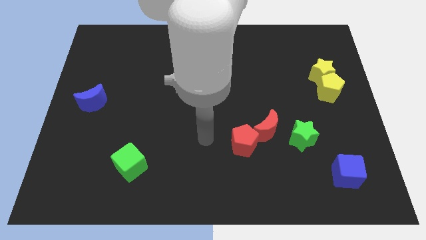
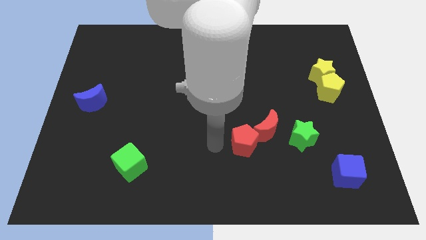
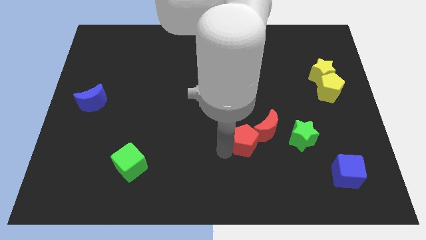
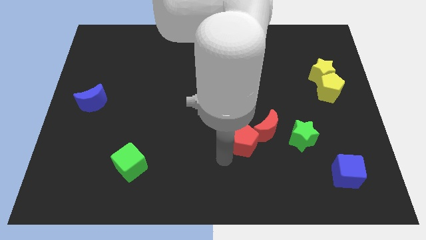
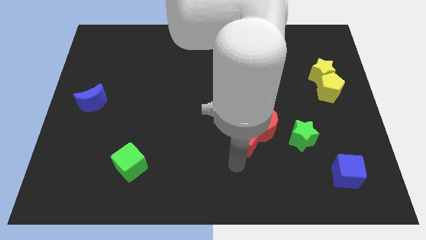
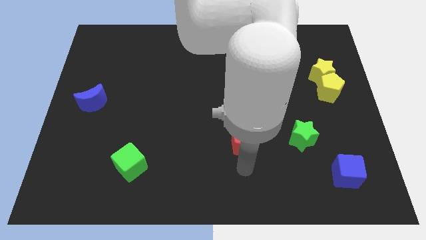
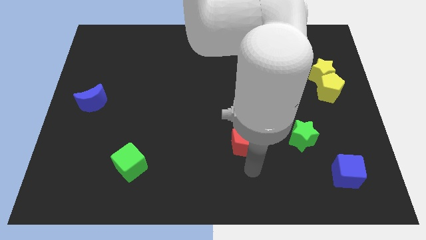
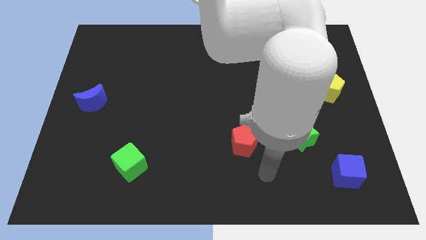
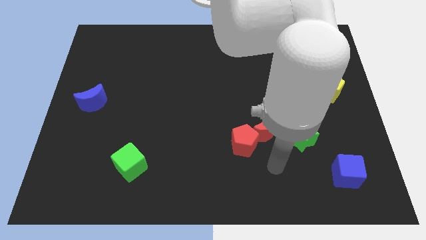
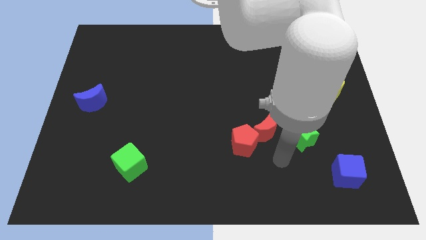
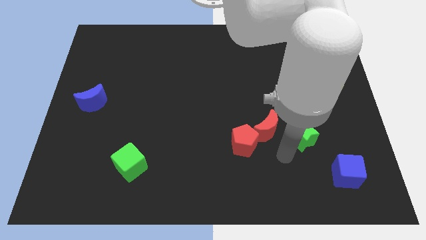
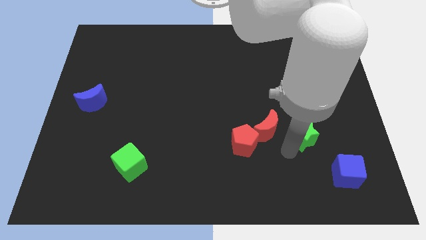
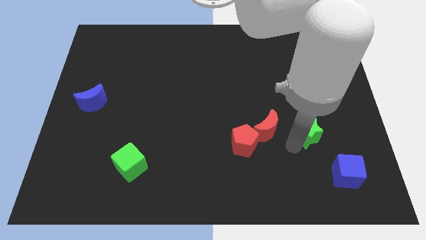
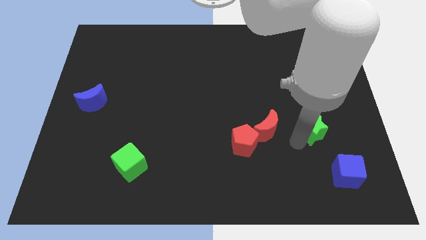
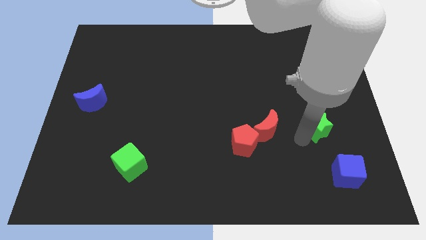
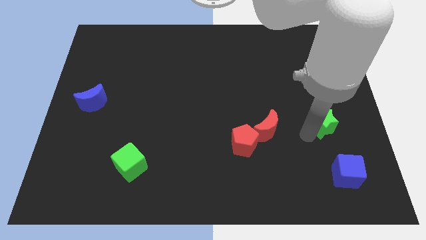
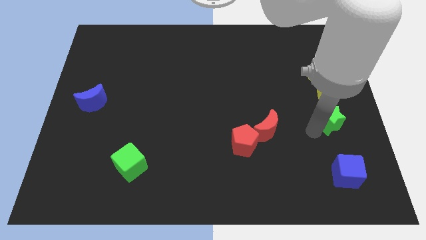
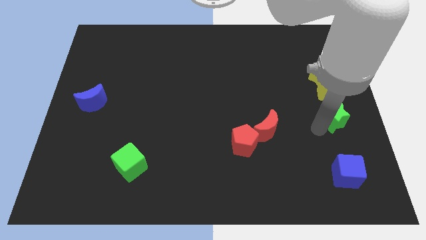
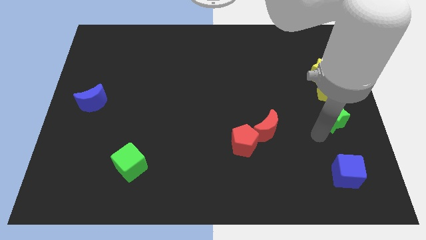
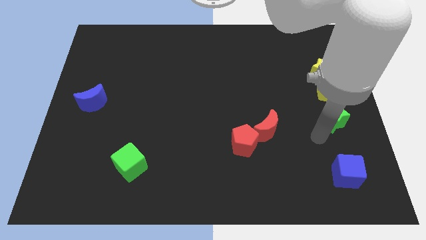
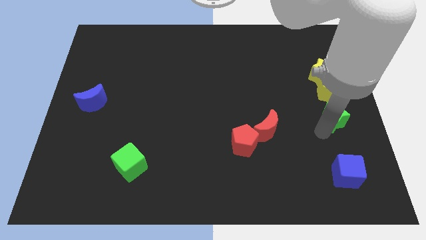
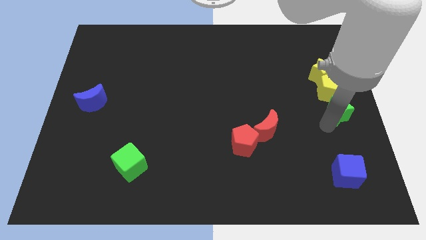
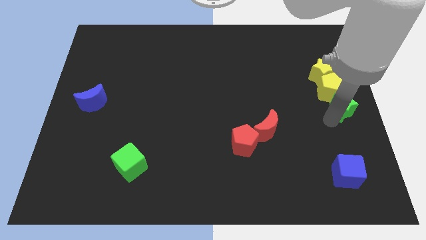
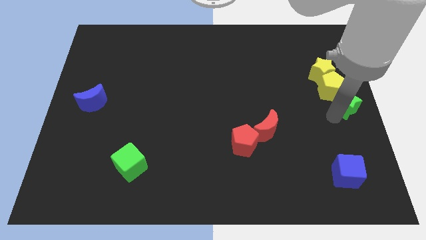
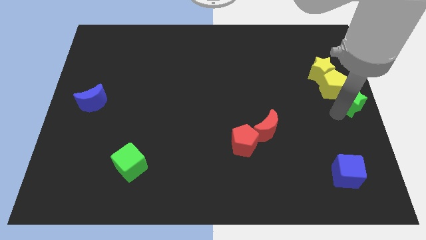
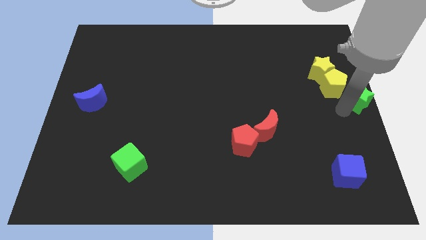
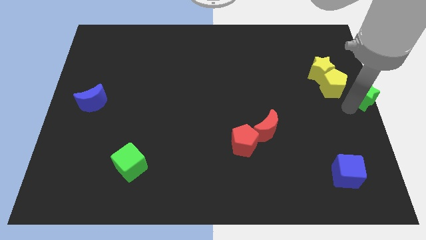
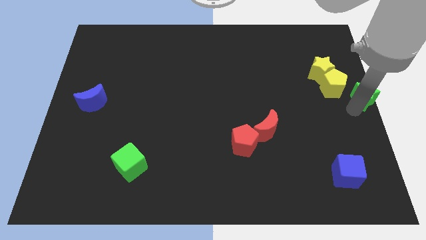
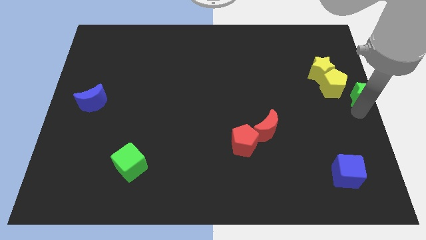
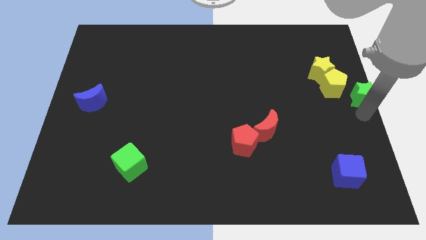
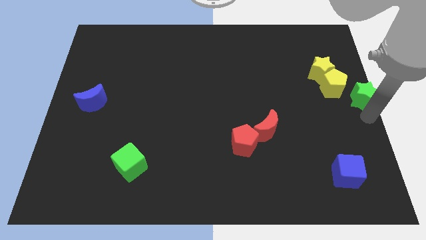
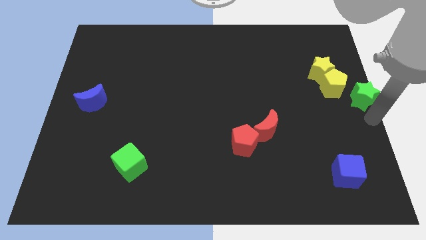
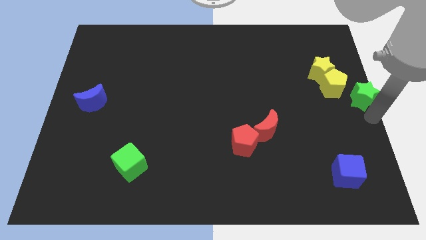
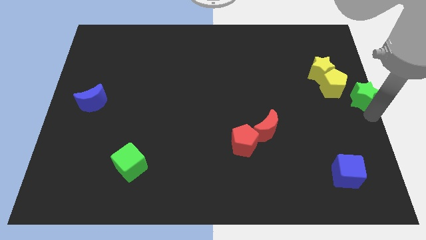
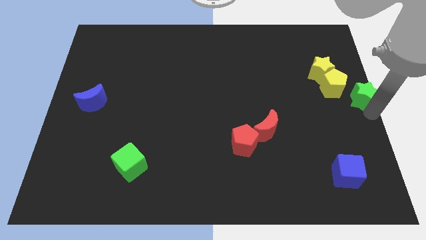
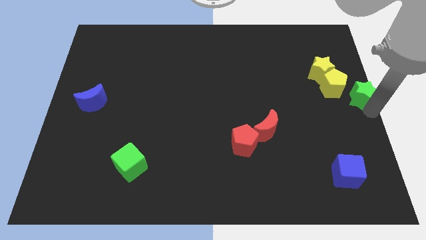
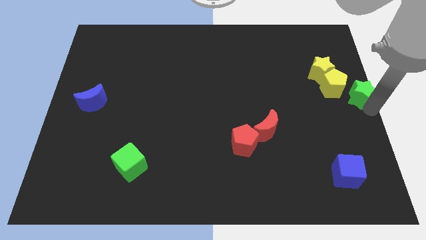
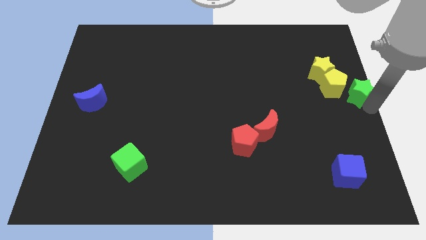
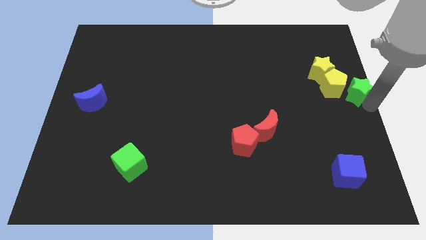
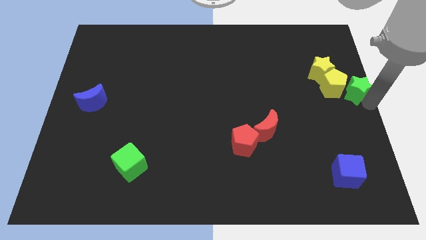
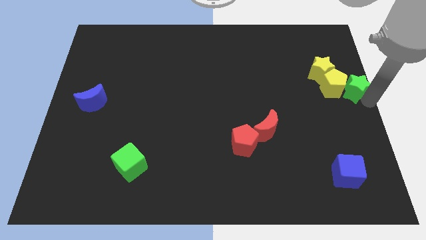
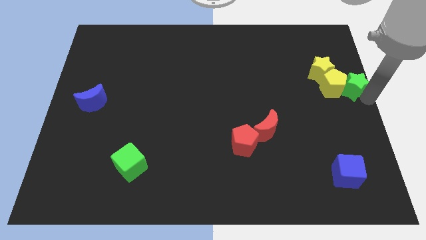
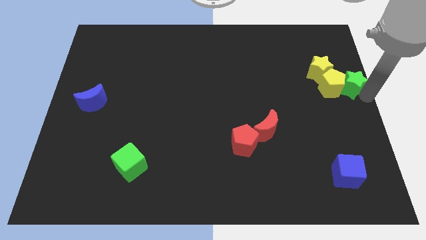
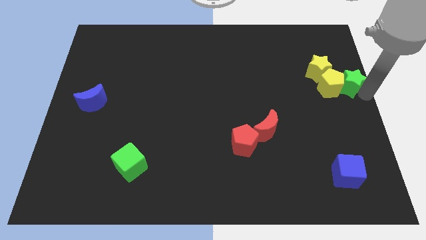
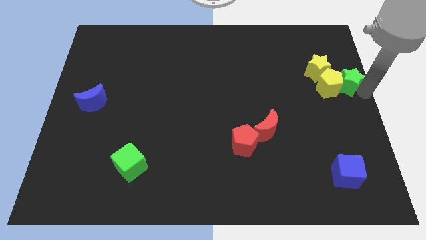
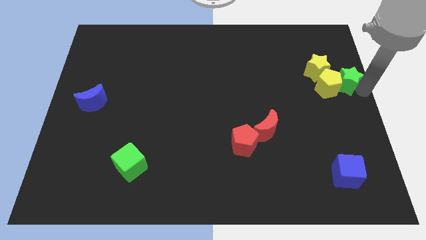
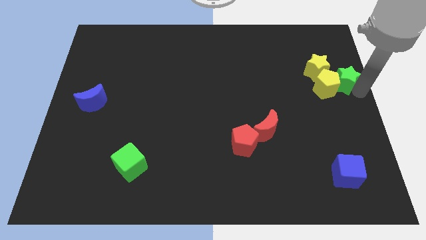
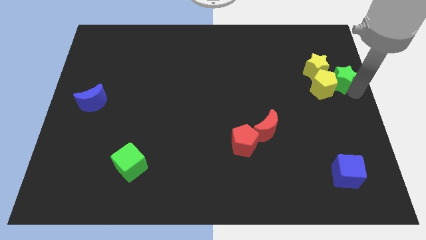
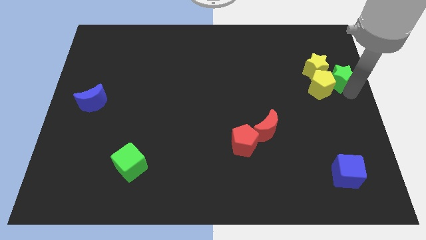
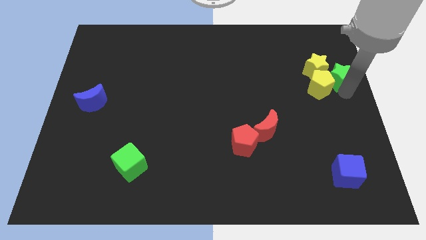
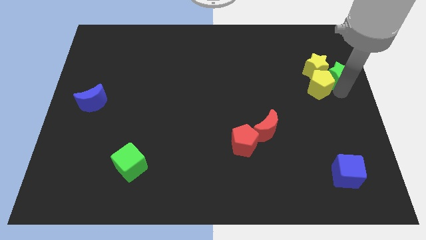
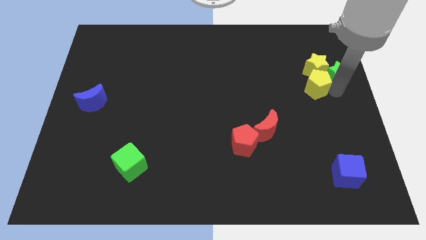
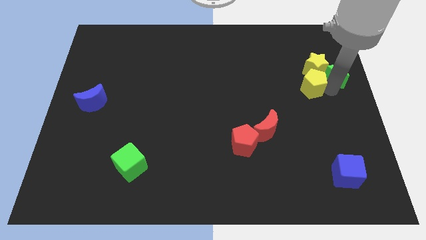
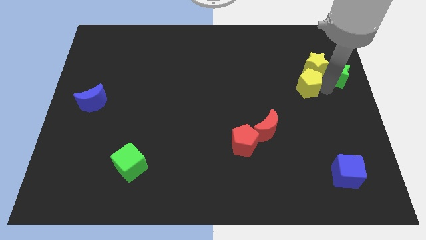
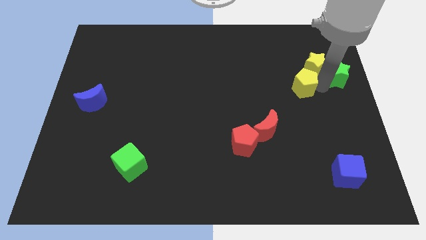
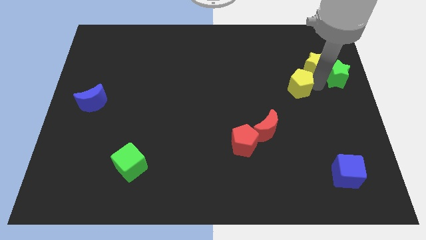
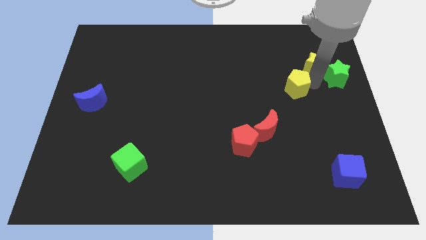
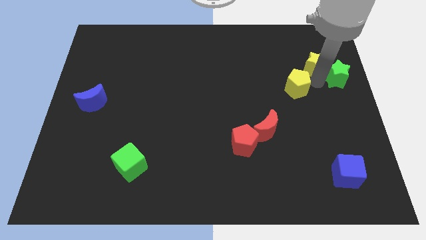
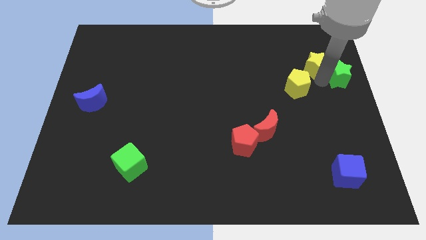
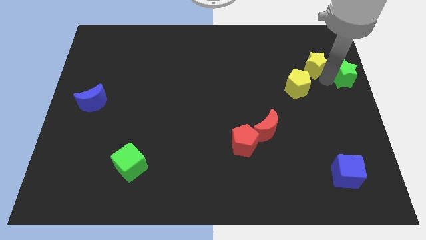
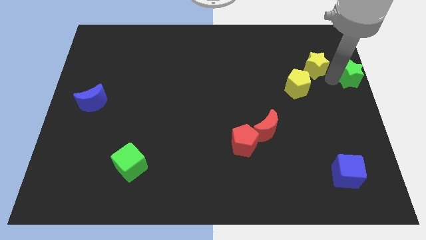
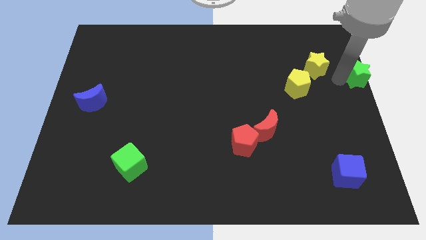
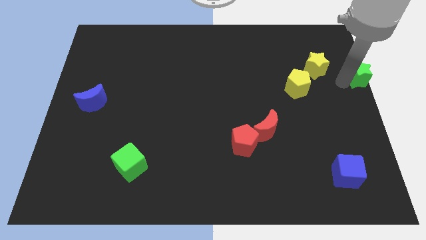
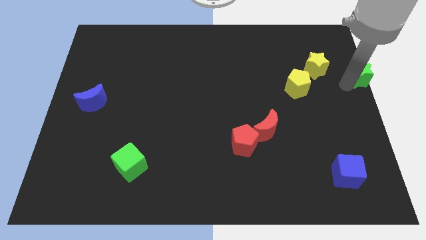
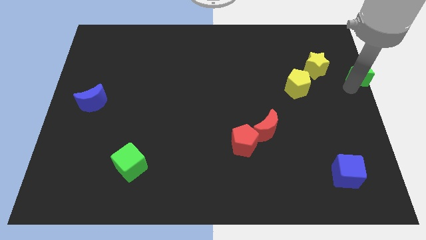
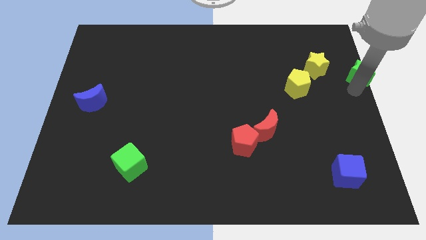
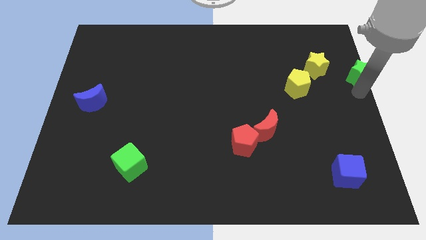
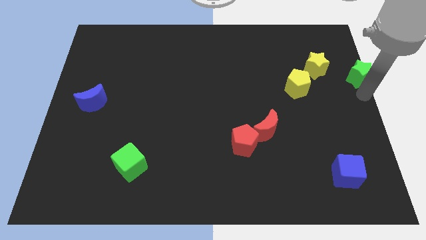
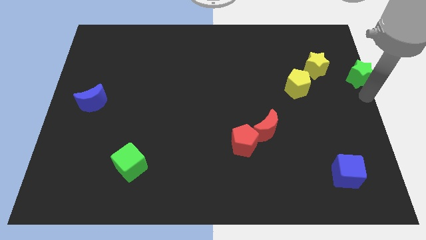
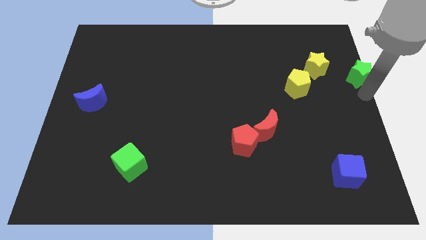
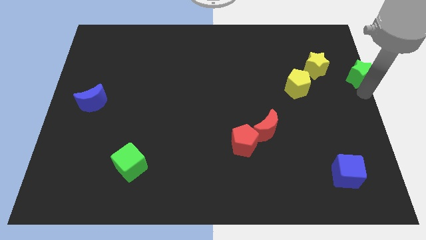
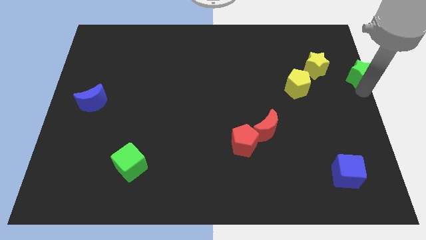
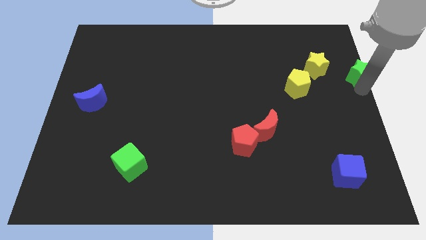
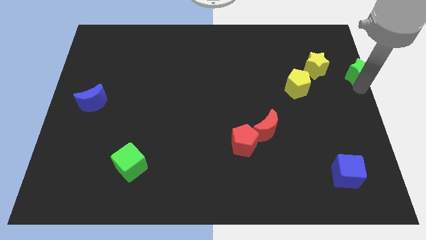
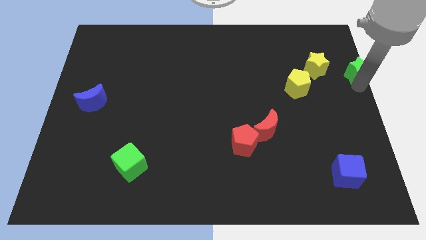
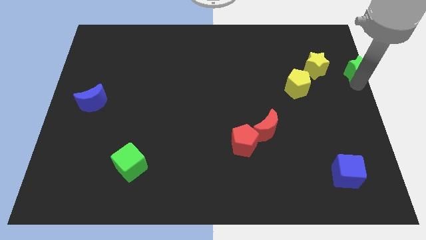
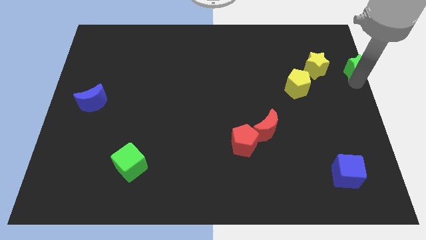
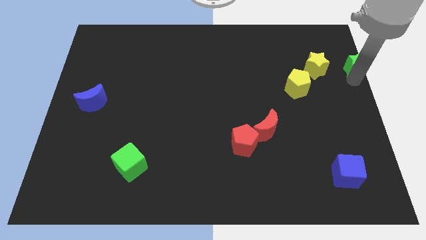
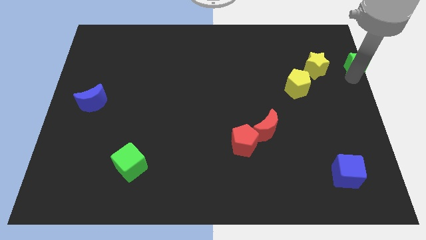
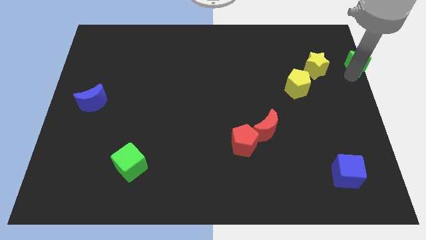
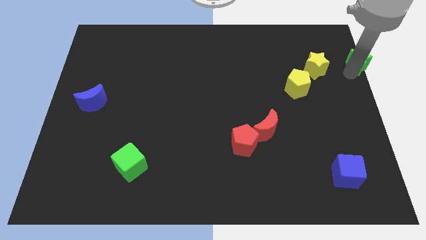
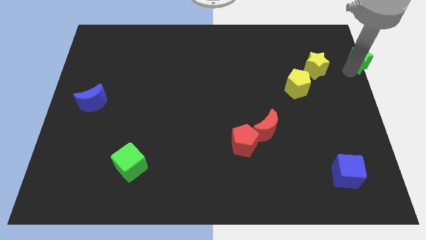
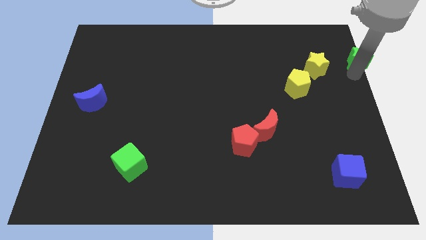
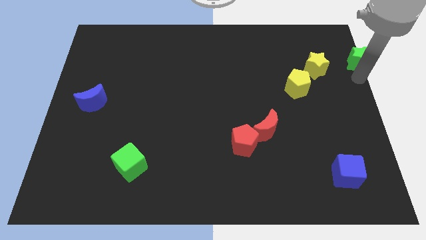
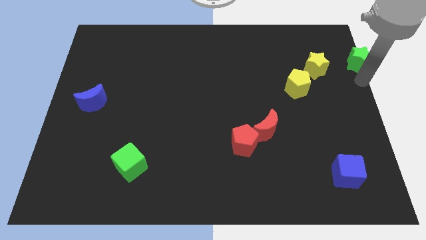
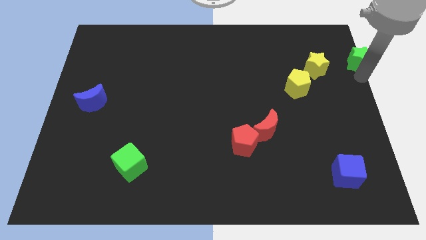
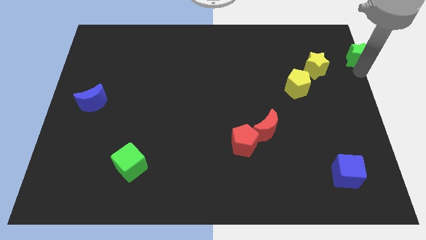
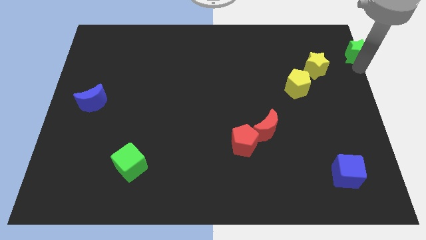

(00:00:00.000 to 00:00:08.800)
push the green star to the top right of the board
